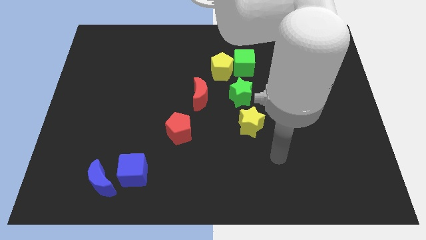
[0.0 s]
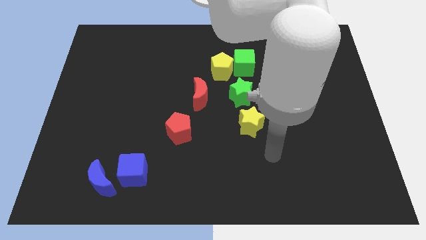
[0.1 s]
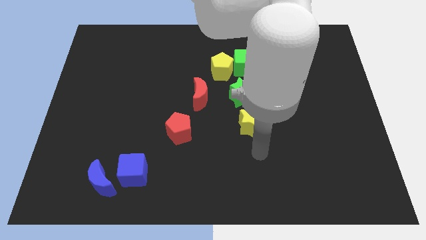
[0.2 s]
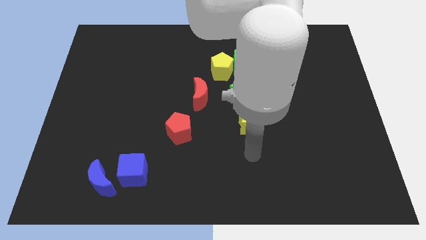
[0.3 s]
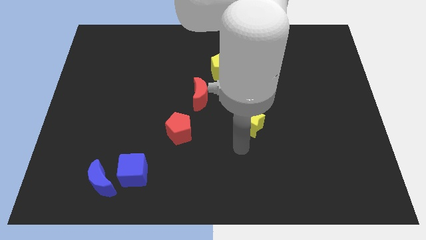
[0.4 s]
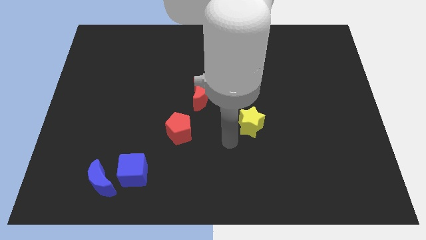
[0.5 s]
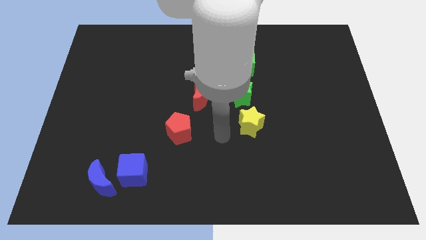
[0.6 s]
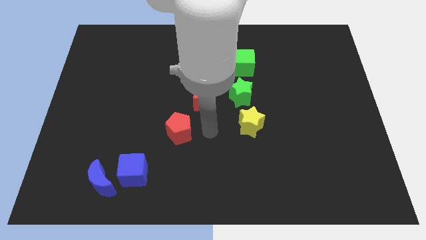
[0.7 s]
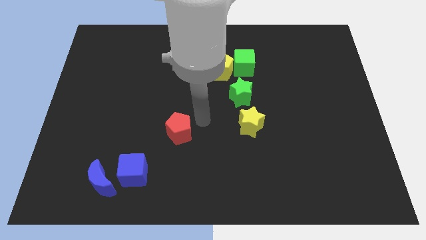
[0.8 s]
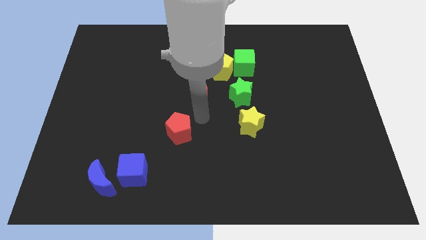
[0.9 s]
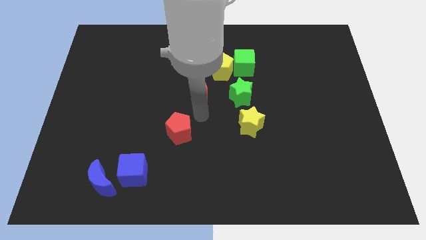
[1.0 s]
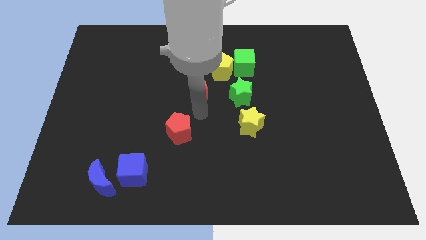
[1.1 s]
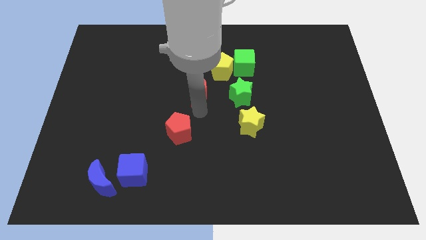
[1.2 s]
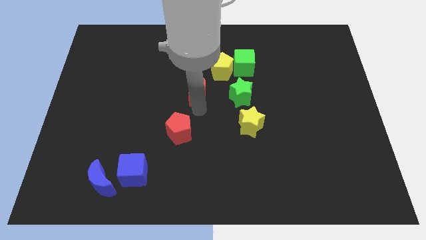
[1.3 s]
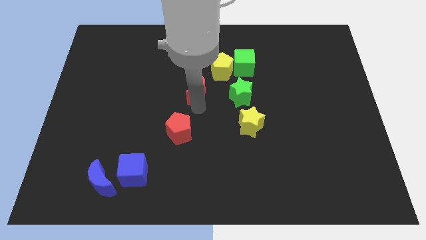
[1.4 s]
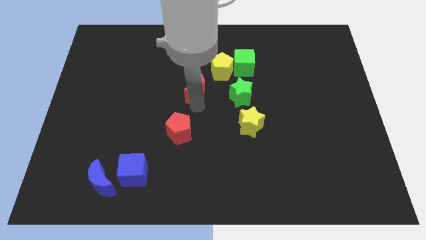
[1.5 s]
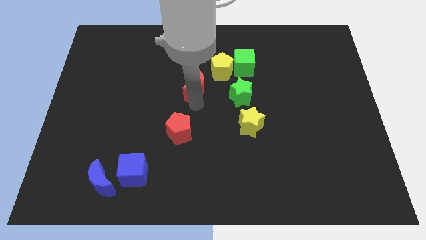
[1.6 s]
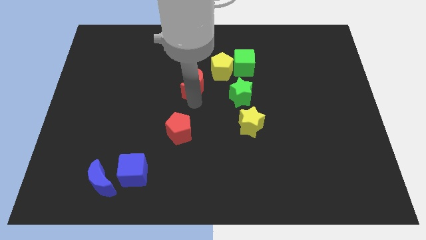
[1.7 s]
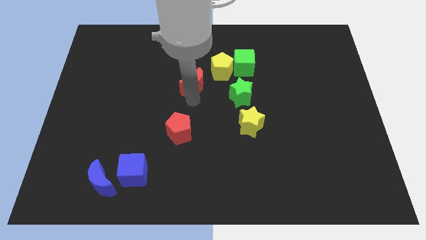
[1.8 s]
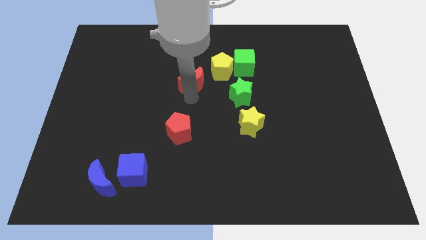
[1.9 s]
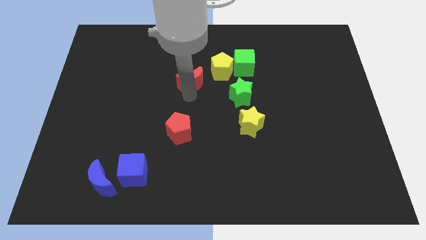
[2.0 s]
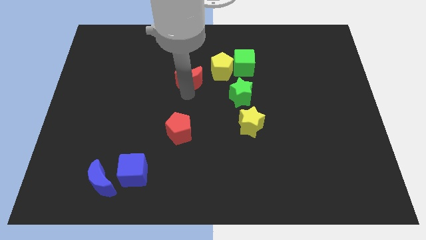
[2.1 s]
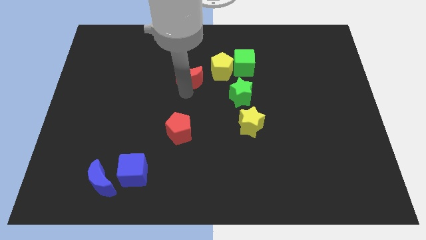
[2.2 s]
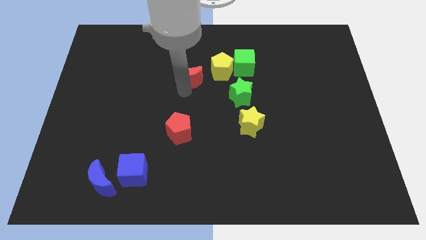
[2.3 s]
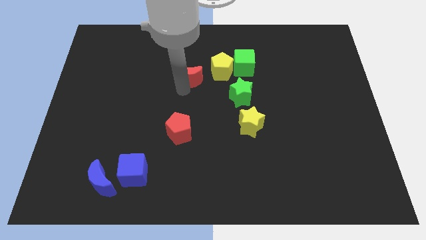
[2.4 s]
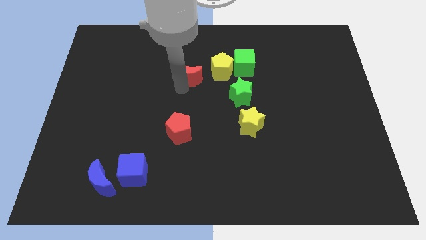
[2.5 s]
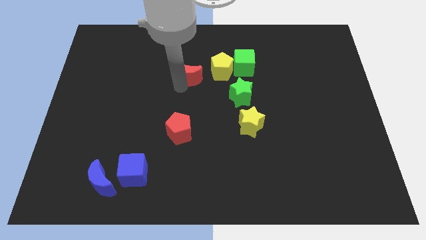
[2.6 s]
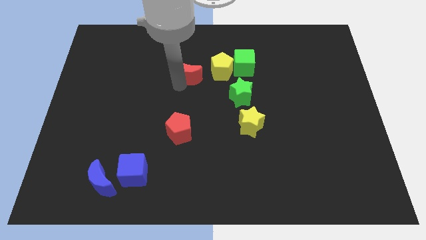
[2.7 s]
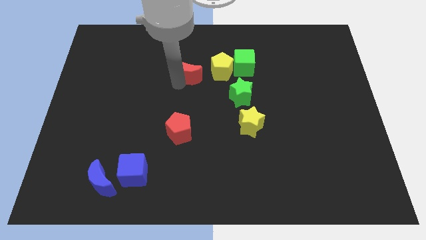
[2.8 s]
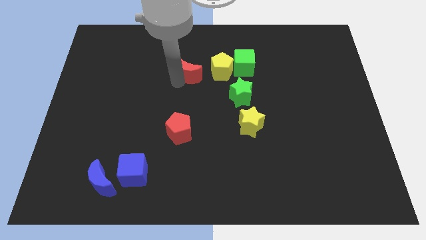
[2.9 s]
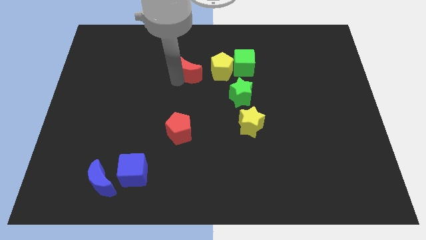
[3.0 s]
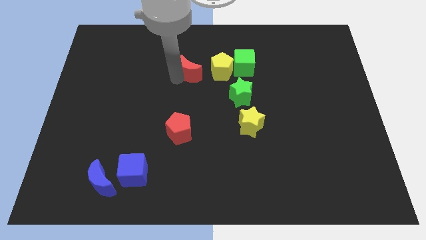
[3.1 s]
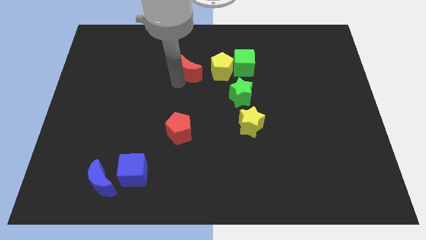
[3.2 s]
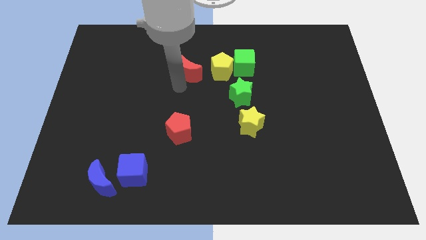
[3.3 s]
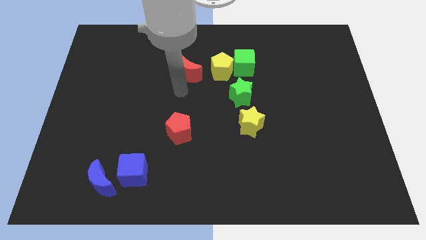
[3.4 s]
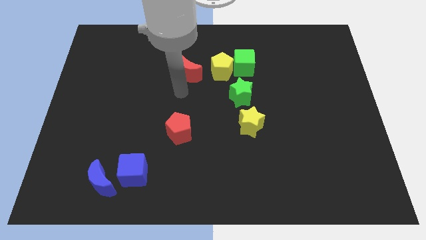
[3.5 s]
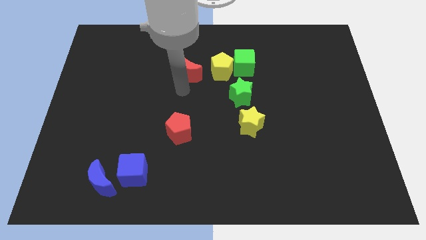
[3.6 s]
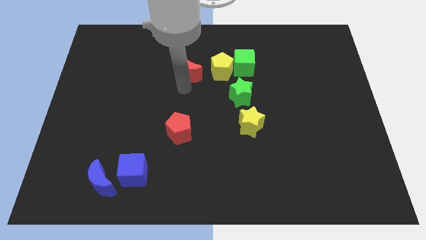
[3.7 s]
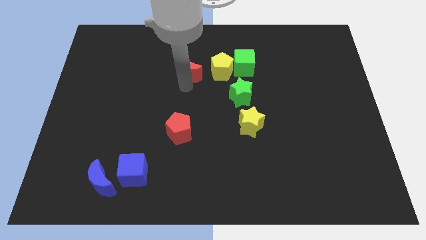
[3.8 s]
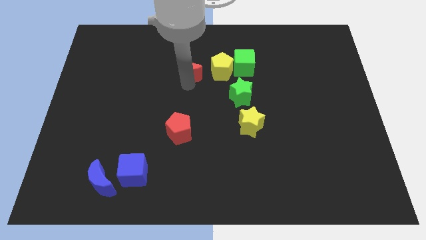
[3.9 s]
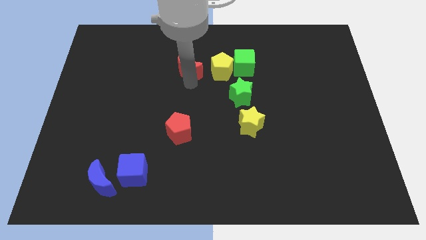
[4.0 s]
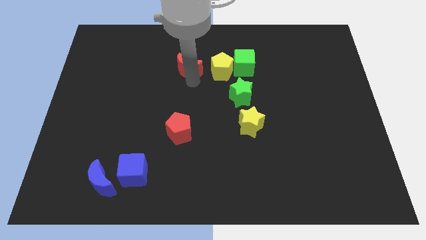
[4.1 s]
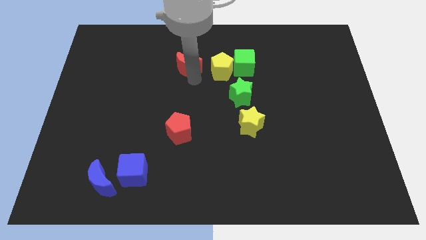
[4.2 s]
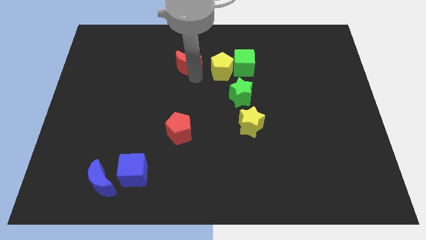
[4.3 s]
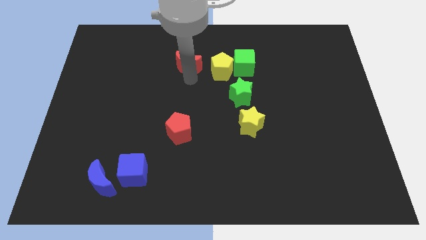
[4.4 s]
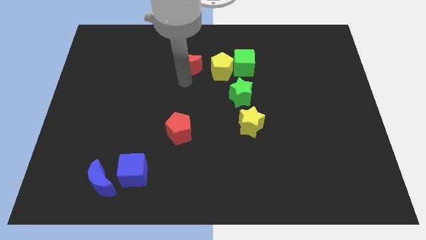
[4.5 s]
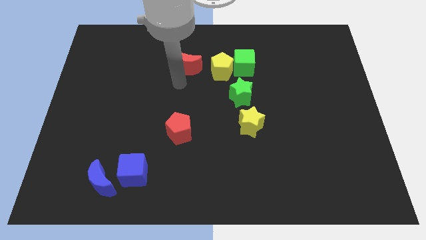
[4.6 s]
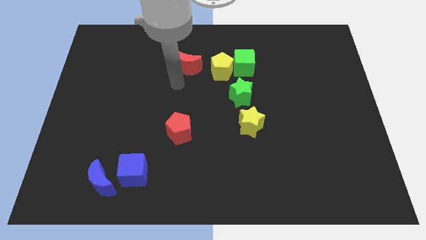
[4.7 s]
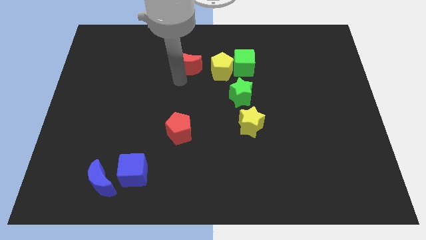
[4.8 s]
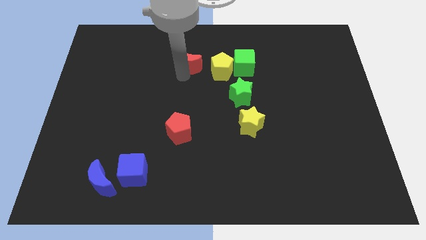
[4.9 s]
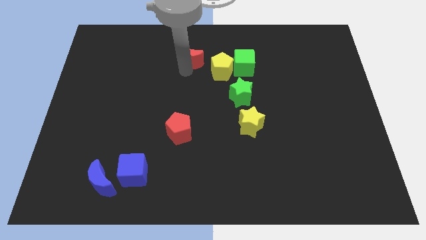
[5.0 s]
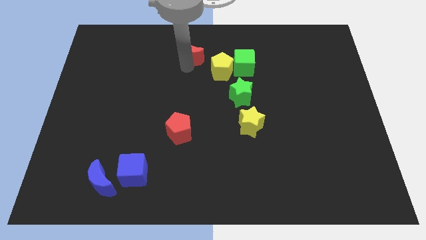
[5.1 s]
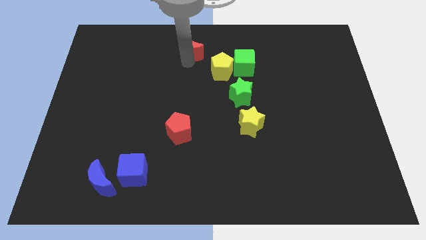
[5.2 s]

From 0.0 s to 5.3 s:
push the red moon to the towards your base

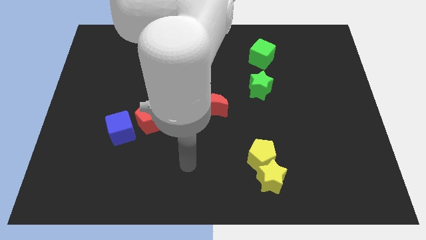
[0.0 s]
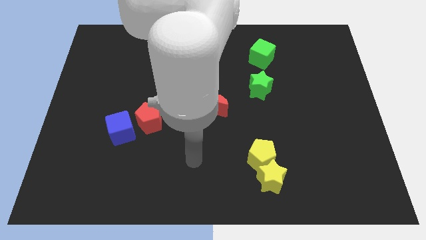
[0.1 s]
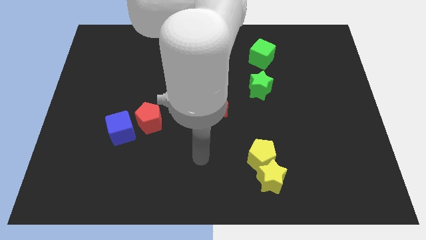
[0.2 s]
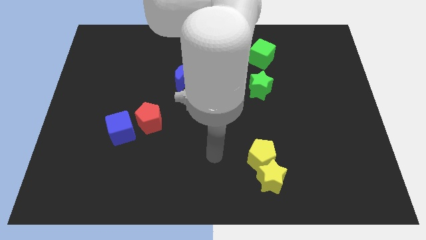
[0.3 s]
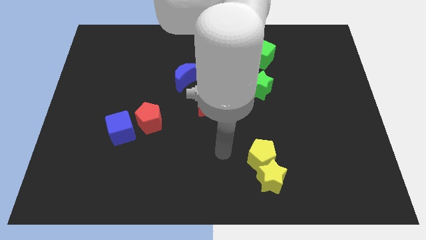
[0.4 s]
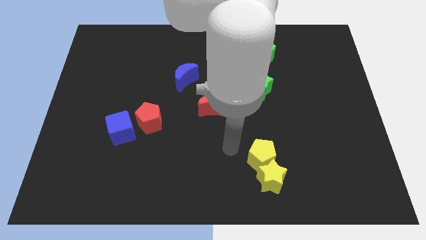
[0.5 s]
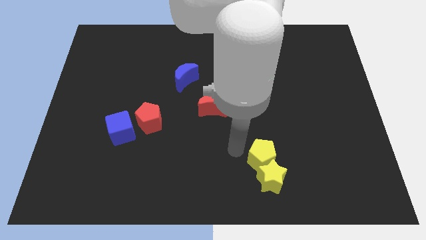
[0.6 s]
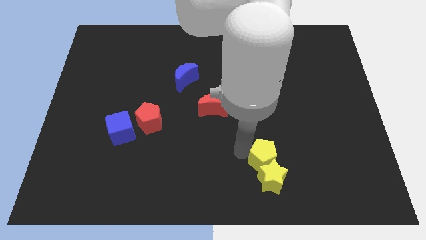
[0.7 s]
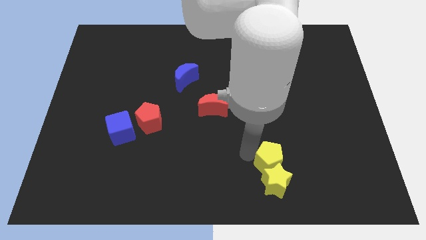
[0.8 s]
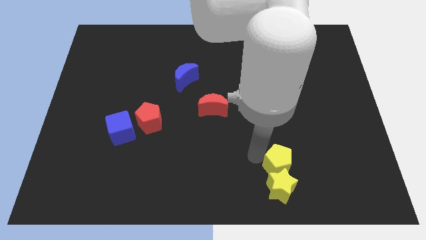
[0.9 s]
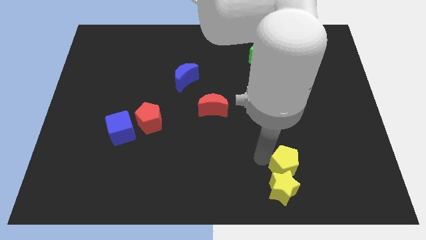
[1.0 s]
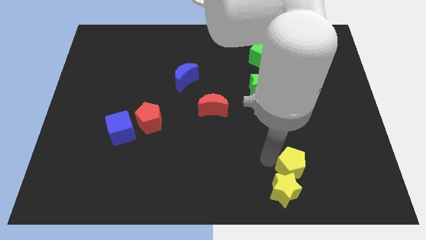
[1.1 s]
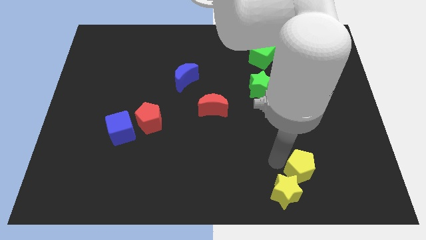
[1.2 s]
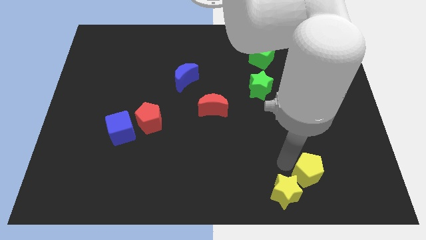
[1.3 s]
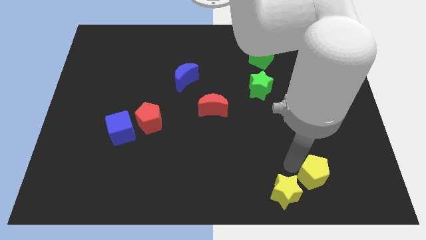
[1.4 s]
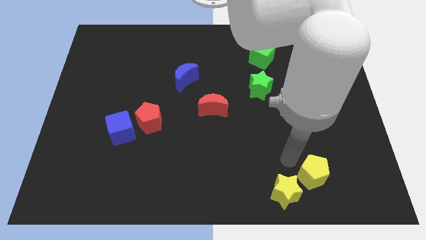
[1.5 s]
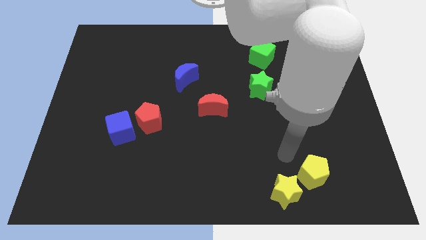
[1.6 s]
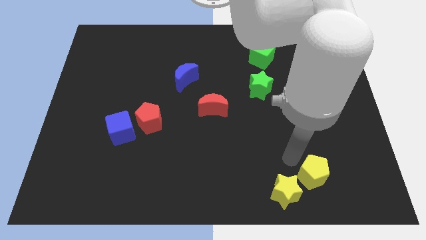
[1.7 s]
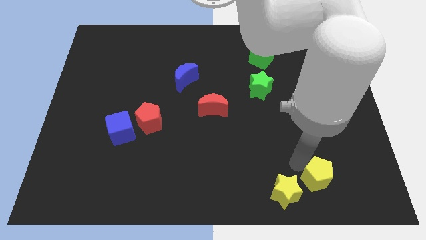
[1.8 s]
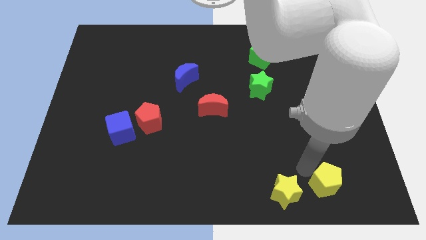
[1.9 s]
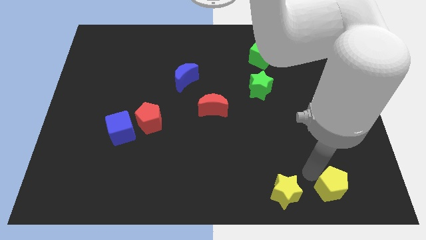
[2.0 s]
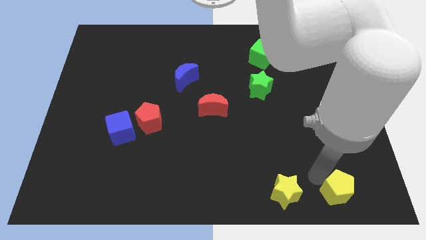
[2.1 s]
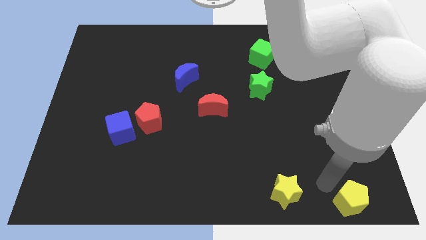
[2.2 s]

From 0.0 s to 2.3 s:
move the yellow pentagon to the lower right corner
